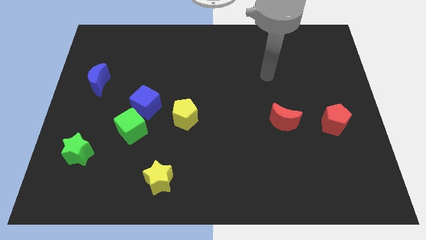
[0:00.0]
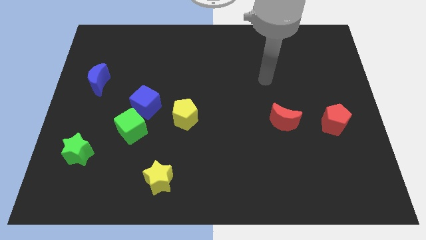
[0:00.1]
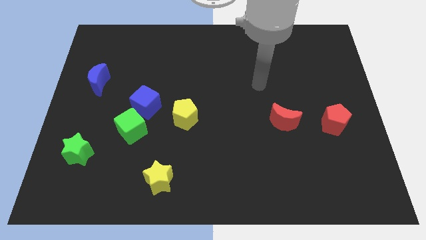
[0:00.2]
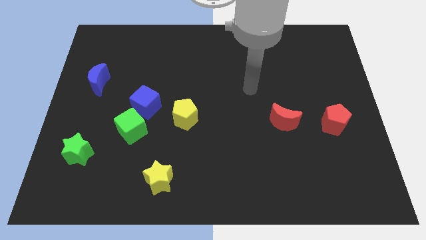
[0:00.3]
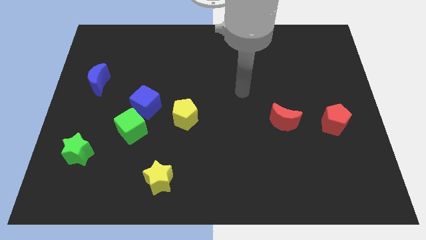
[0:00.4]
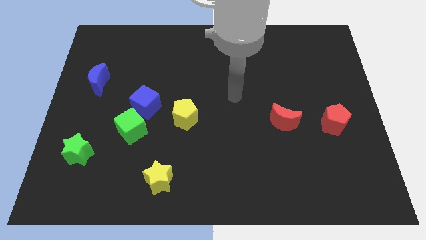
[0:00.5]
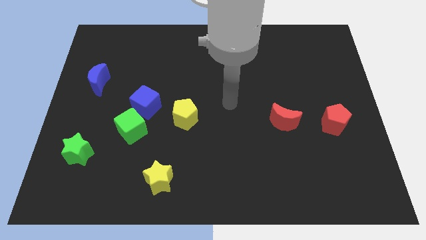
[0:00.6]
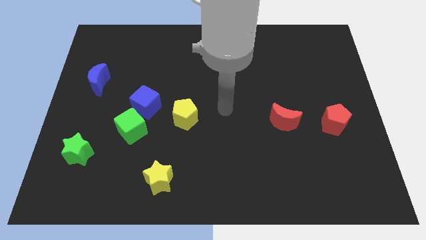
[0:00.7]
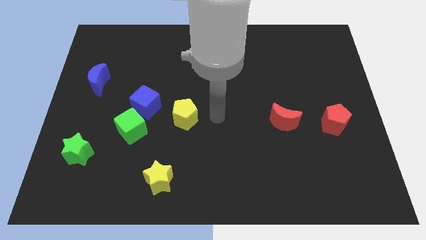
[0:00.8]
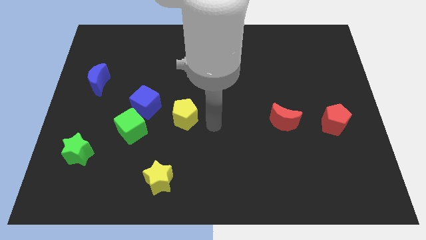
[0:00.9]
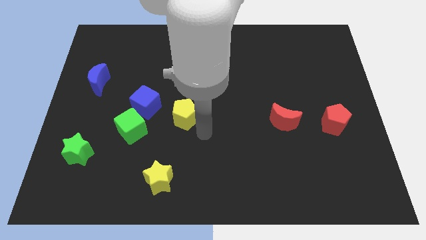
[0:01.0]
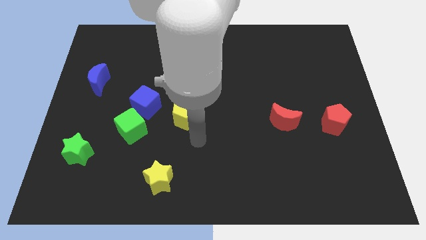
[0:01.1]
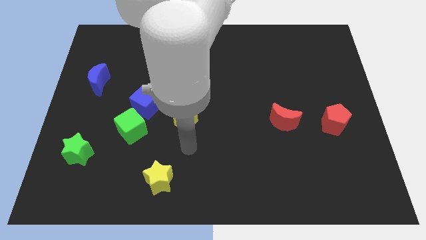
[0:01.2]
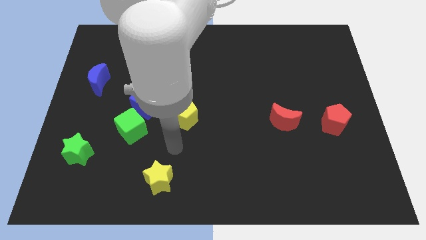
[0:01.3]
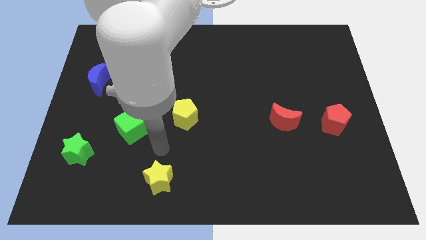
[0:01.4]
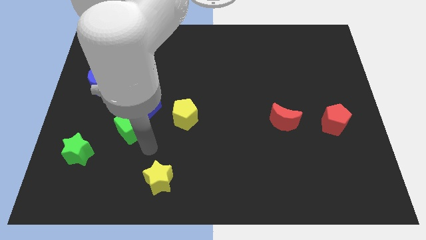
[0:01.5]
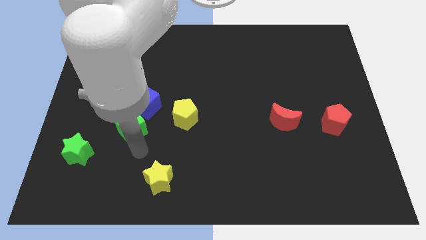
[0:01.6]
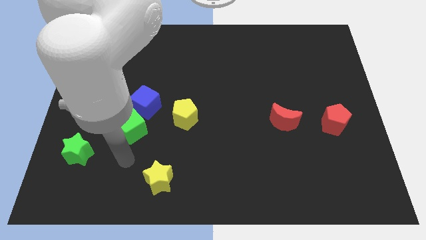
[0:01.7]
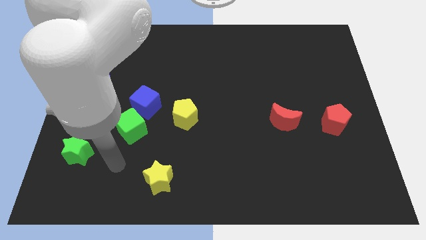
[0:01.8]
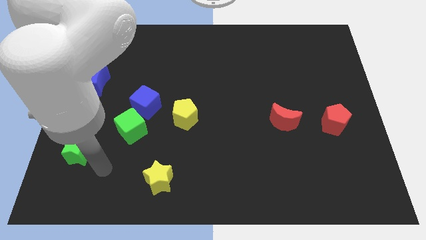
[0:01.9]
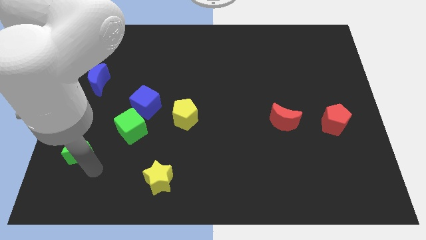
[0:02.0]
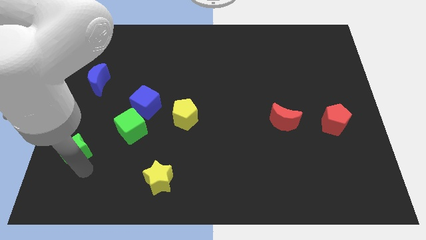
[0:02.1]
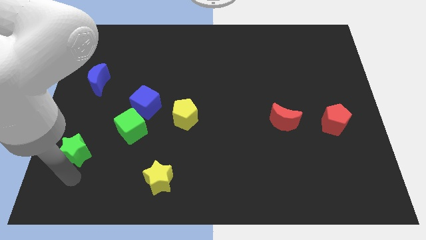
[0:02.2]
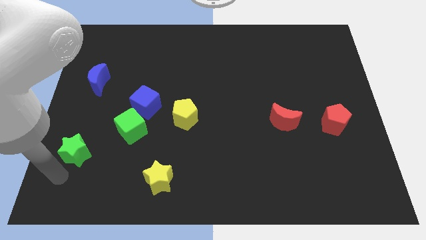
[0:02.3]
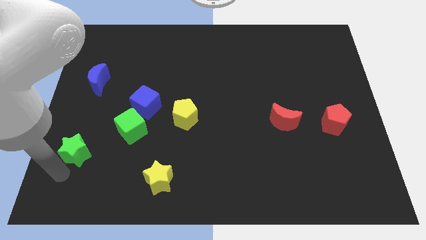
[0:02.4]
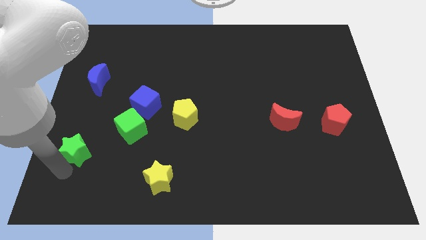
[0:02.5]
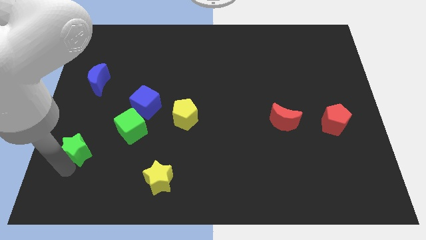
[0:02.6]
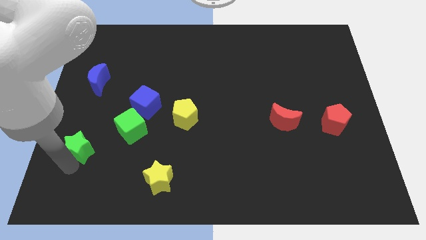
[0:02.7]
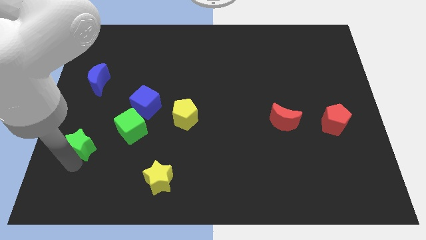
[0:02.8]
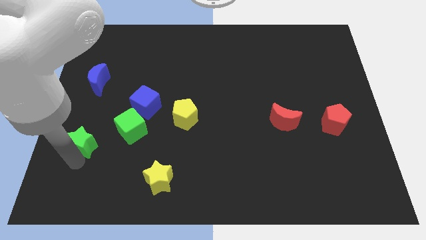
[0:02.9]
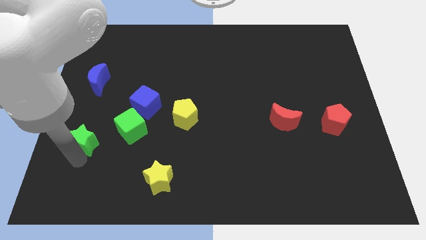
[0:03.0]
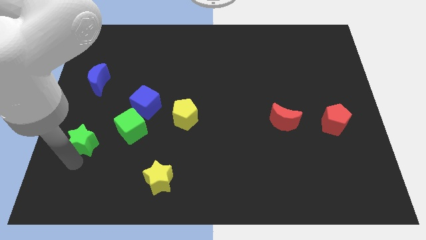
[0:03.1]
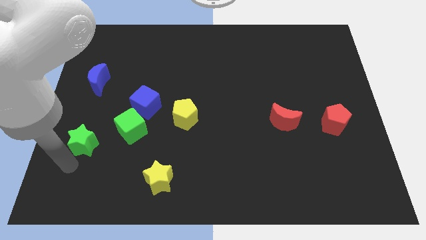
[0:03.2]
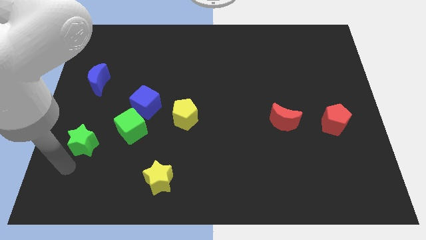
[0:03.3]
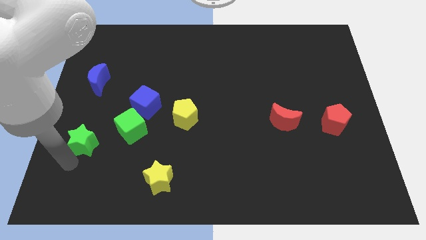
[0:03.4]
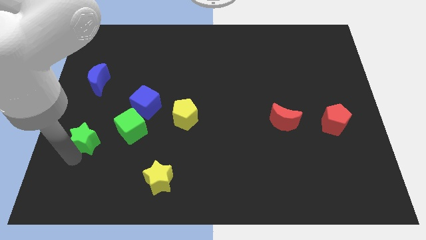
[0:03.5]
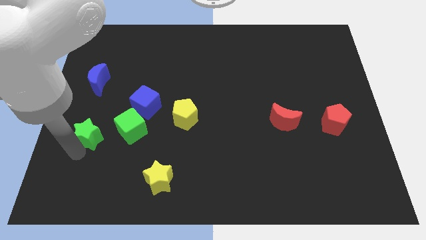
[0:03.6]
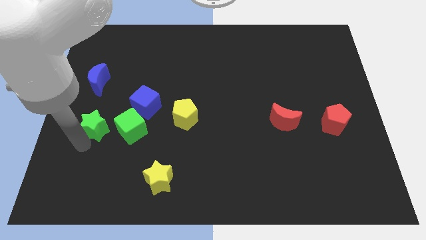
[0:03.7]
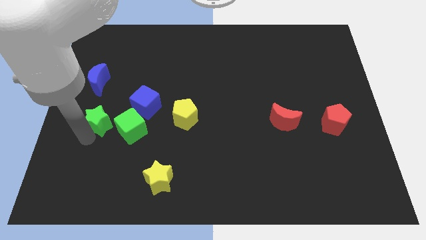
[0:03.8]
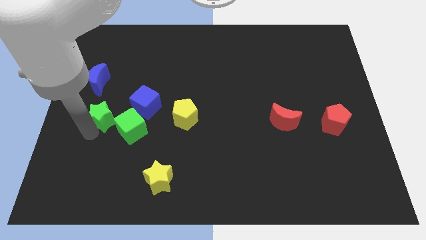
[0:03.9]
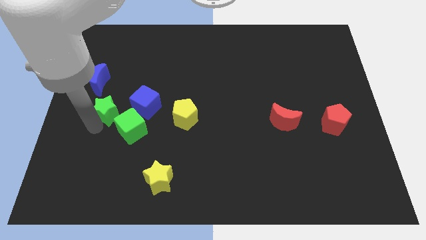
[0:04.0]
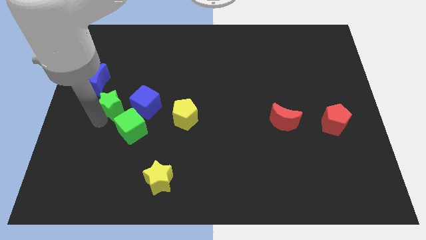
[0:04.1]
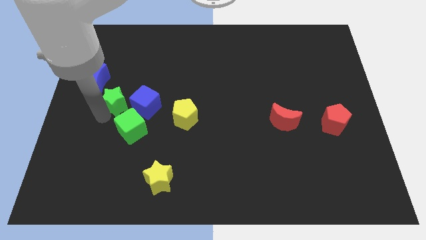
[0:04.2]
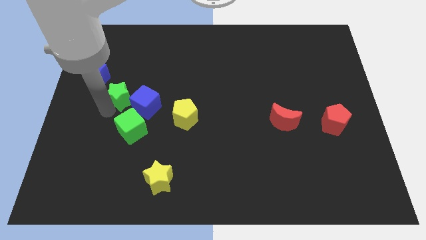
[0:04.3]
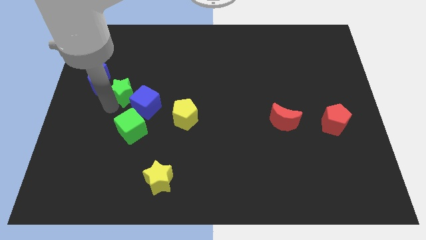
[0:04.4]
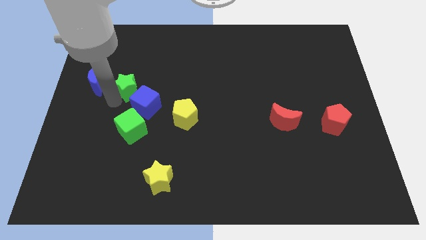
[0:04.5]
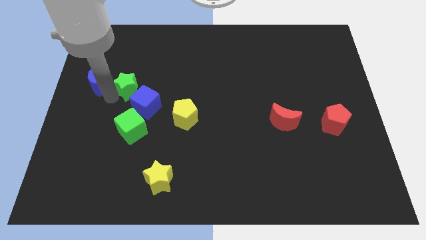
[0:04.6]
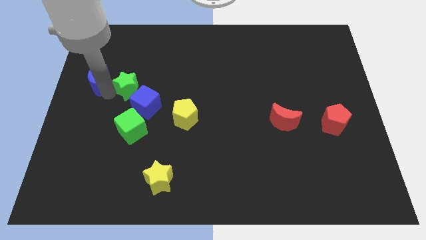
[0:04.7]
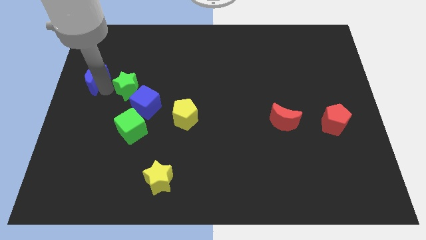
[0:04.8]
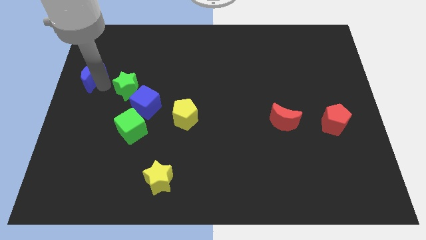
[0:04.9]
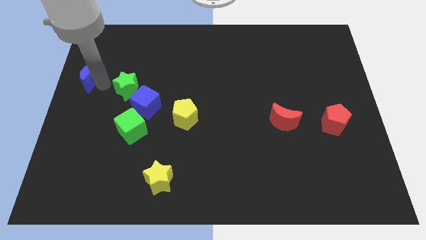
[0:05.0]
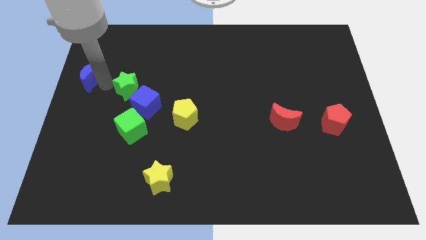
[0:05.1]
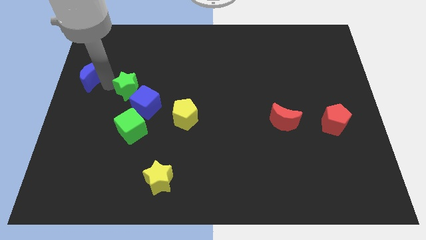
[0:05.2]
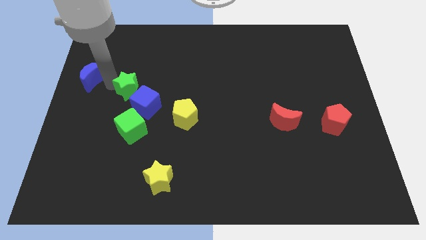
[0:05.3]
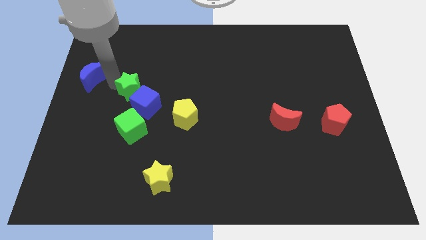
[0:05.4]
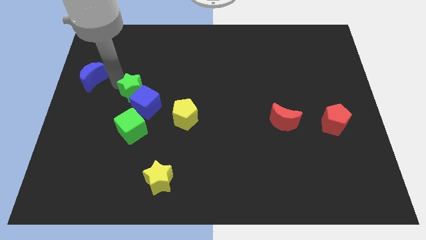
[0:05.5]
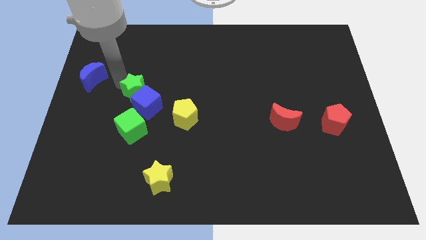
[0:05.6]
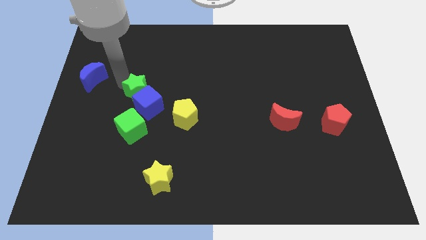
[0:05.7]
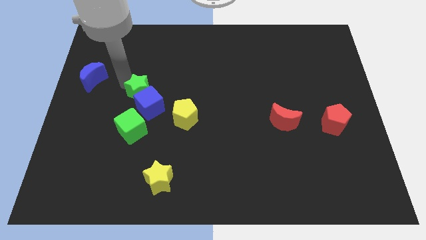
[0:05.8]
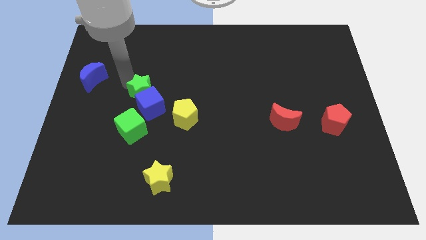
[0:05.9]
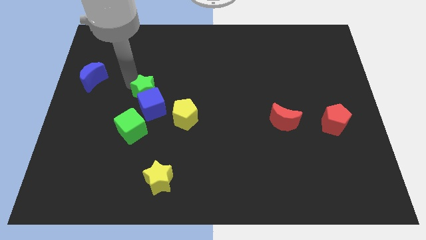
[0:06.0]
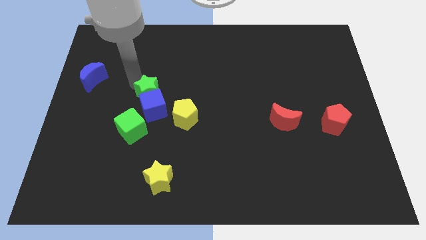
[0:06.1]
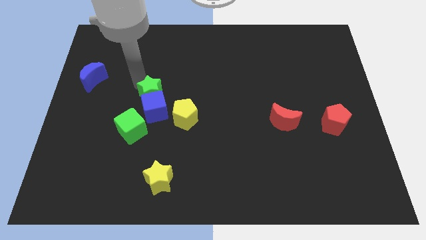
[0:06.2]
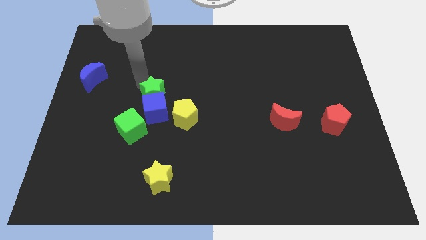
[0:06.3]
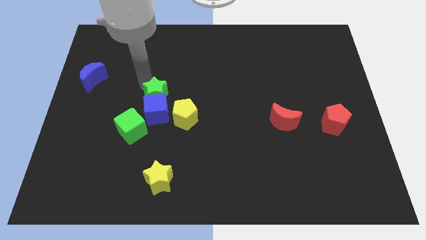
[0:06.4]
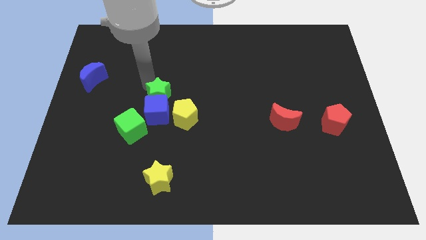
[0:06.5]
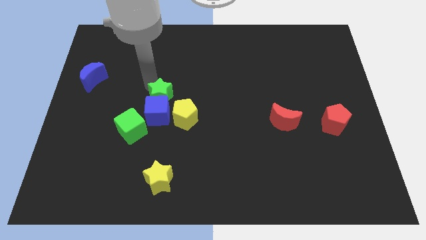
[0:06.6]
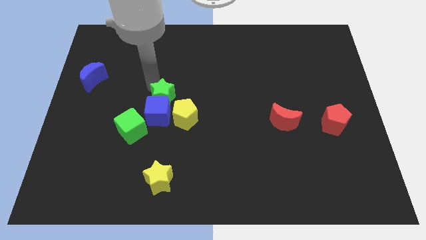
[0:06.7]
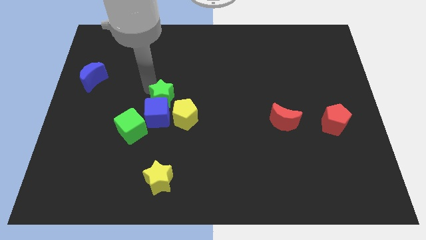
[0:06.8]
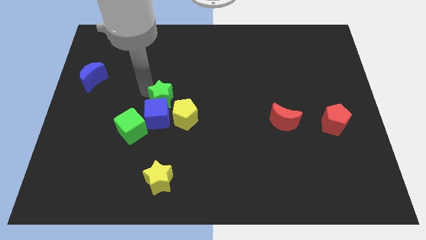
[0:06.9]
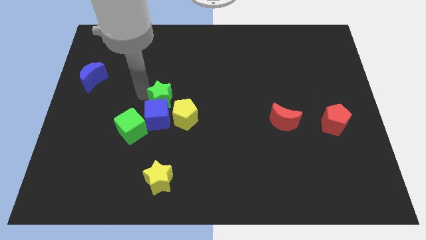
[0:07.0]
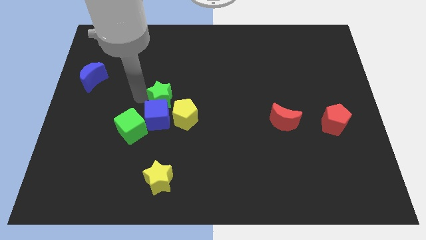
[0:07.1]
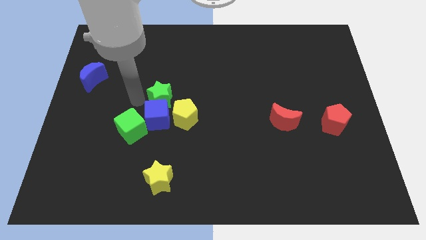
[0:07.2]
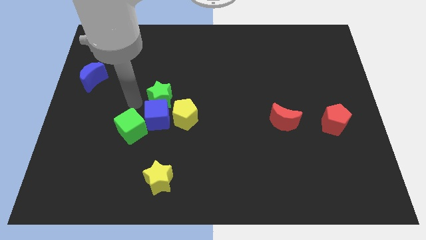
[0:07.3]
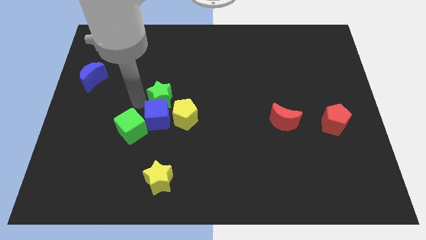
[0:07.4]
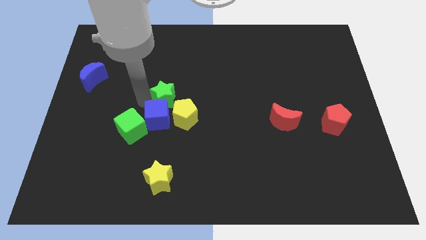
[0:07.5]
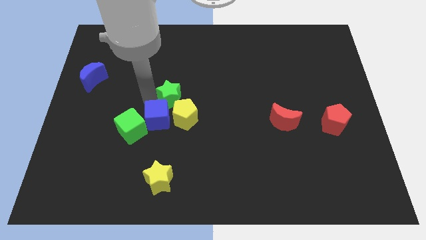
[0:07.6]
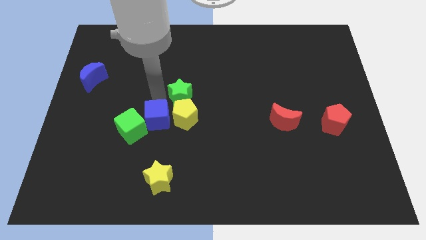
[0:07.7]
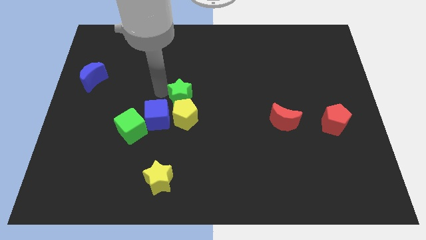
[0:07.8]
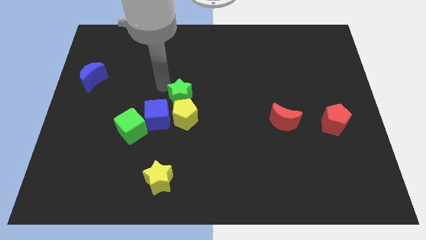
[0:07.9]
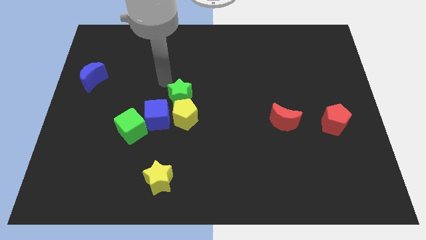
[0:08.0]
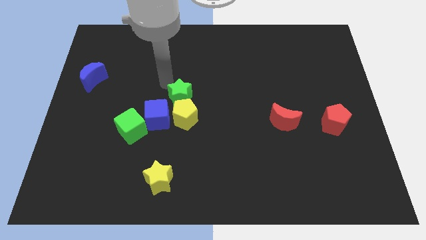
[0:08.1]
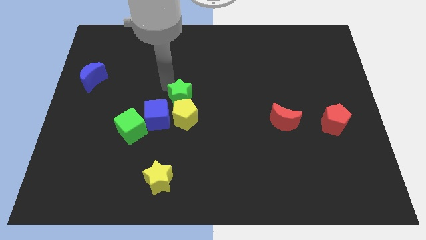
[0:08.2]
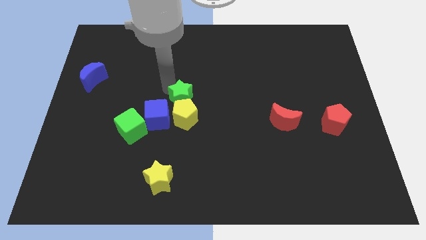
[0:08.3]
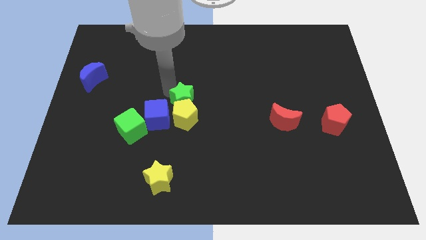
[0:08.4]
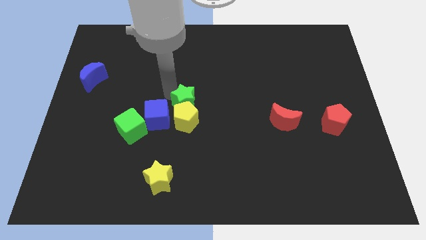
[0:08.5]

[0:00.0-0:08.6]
put the green star to the right side of the blue cube
